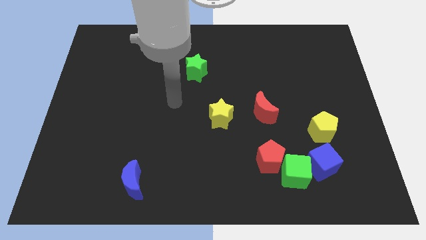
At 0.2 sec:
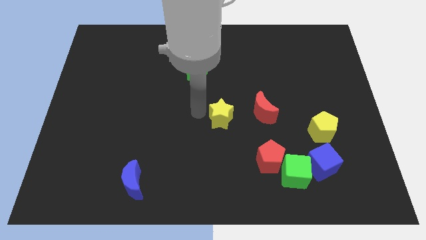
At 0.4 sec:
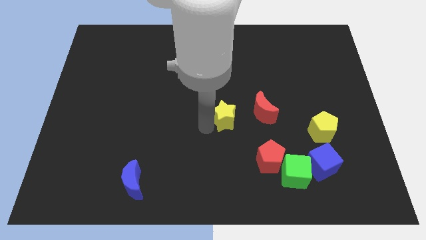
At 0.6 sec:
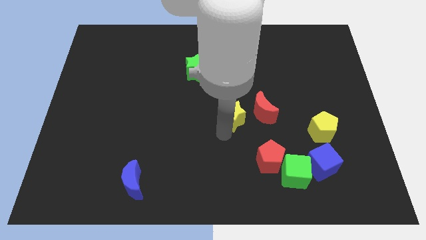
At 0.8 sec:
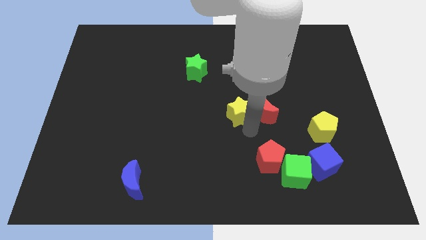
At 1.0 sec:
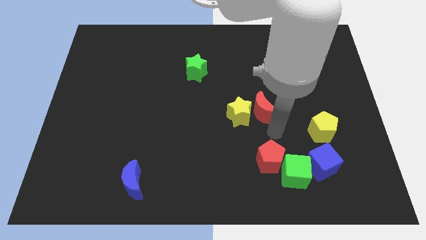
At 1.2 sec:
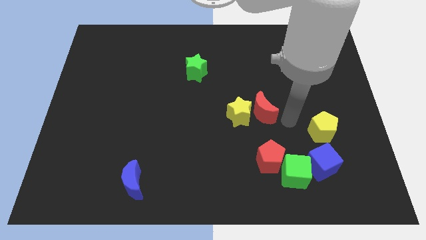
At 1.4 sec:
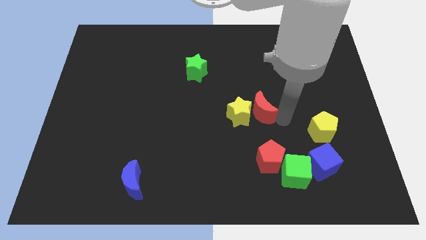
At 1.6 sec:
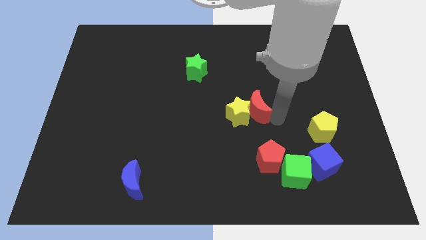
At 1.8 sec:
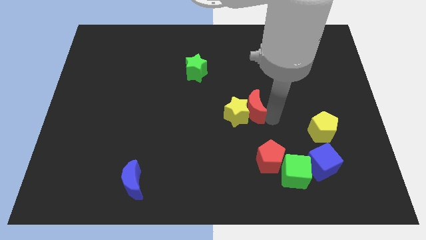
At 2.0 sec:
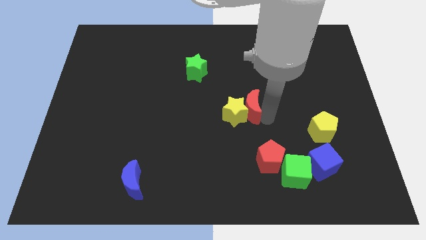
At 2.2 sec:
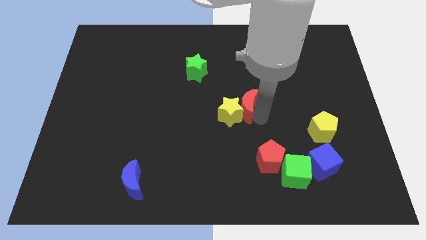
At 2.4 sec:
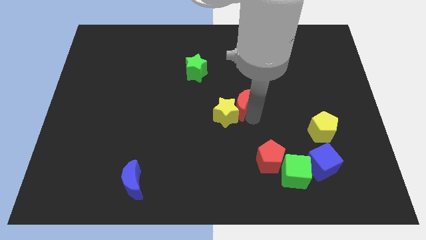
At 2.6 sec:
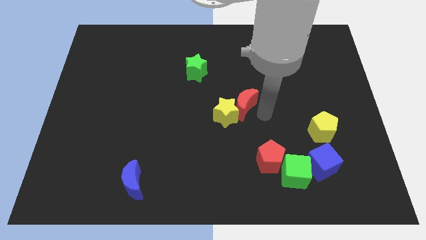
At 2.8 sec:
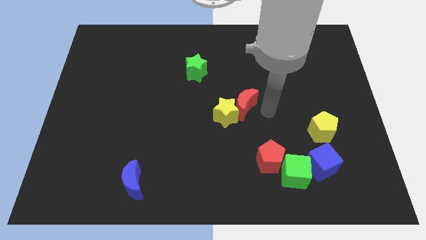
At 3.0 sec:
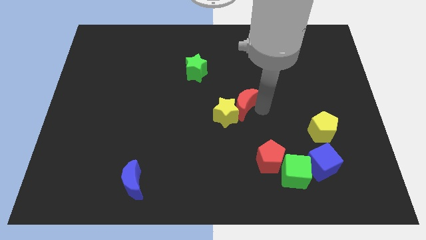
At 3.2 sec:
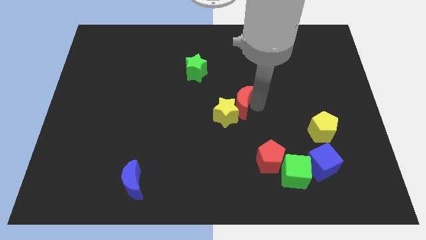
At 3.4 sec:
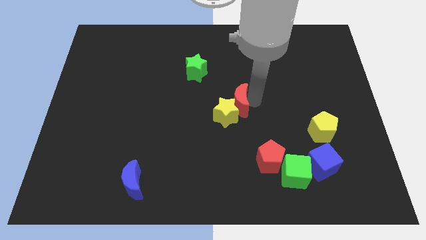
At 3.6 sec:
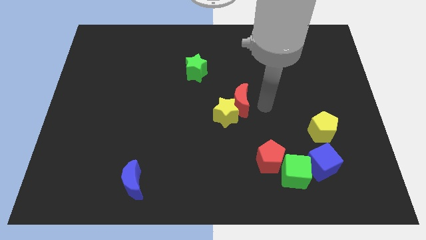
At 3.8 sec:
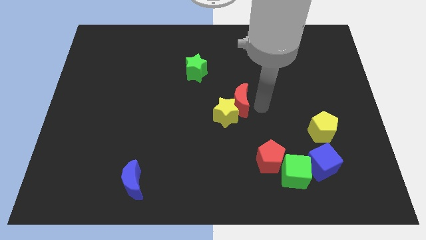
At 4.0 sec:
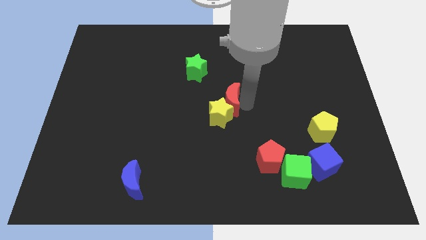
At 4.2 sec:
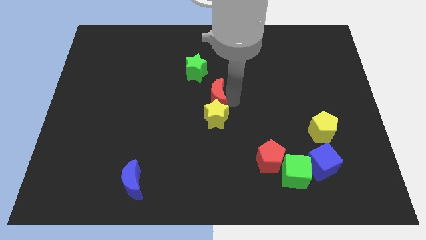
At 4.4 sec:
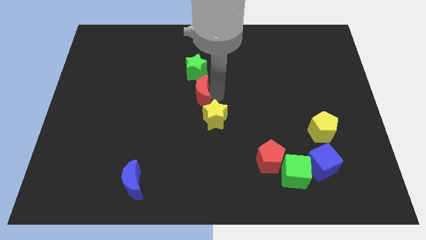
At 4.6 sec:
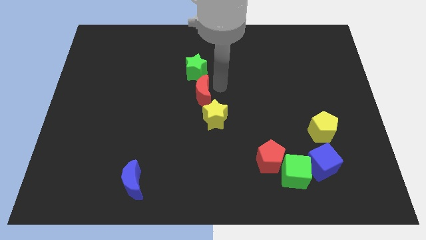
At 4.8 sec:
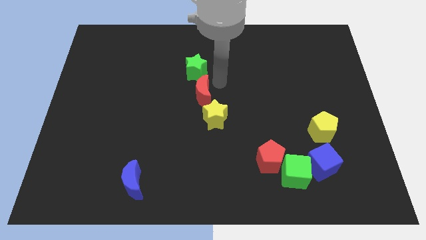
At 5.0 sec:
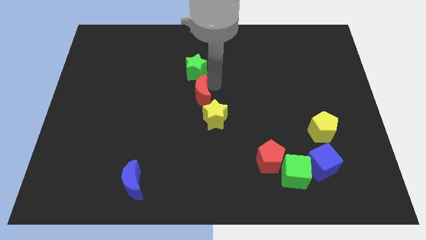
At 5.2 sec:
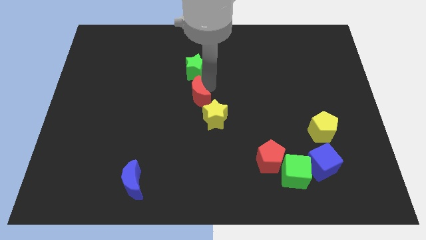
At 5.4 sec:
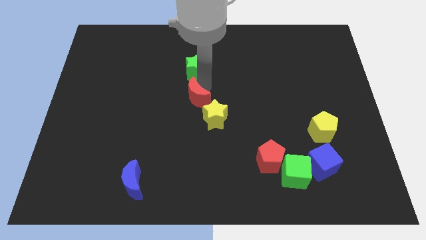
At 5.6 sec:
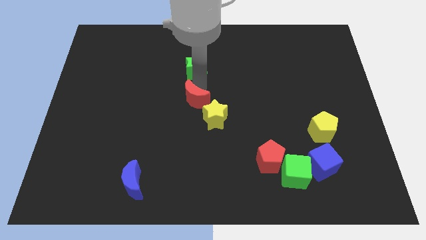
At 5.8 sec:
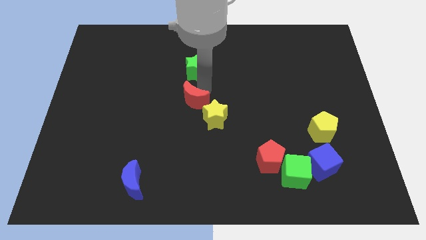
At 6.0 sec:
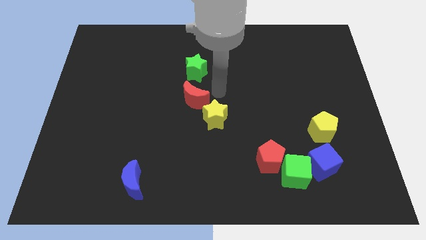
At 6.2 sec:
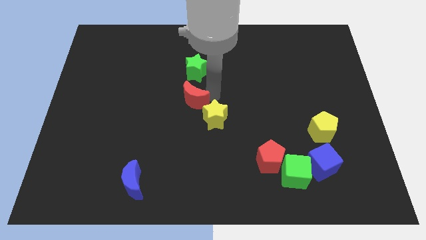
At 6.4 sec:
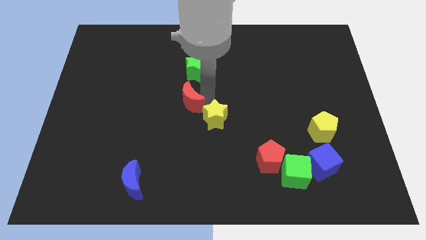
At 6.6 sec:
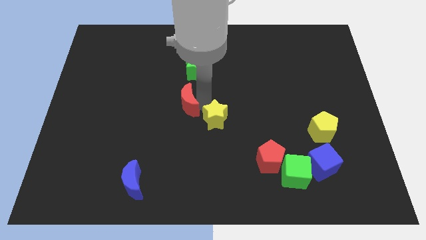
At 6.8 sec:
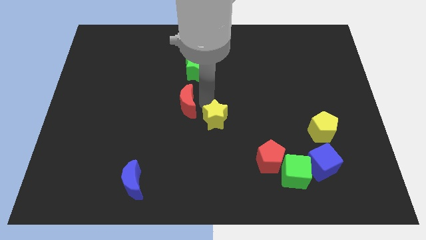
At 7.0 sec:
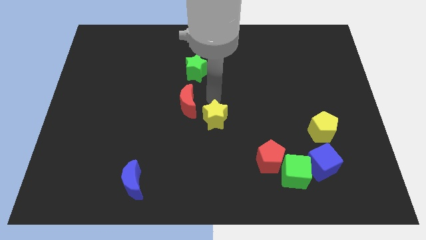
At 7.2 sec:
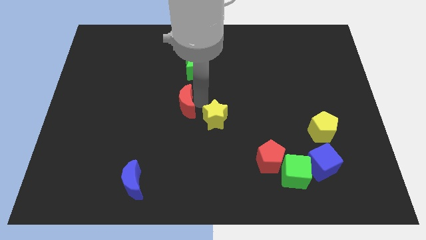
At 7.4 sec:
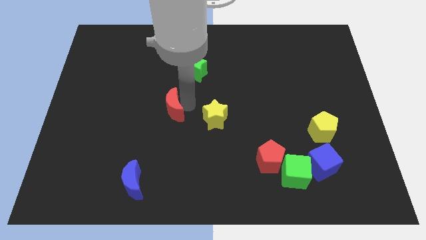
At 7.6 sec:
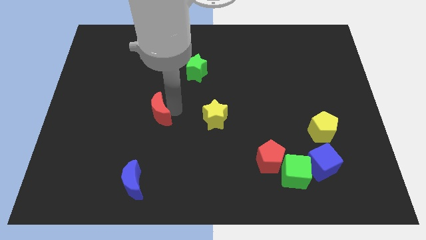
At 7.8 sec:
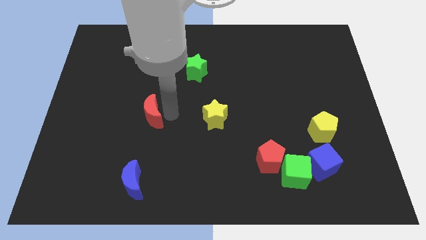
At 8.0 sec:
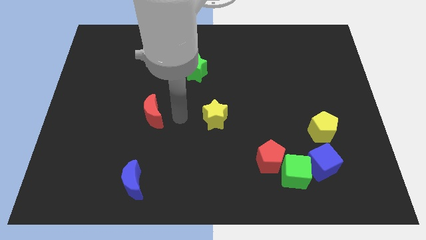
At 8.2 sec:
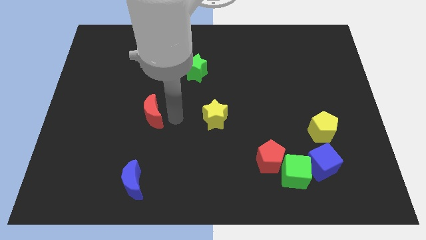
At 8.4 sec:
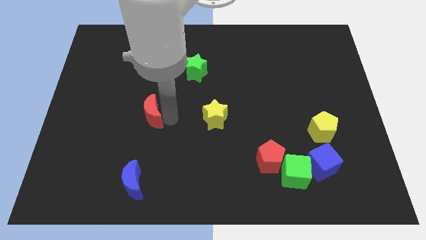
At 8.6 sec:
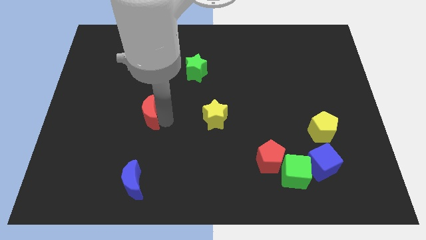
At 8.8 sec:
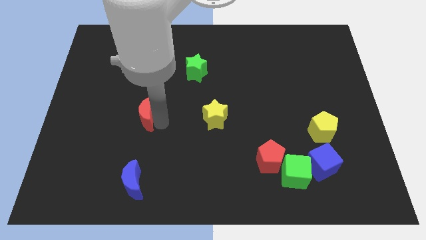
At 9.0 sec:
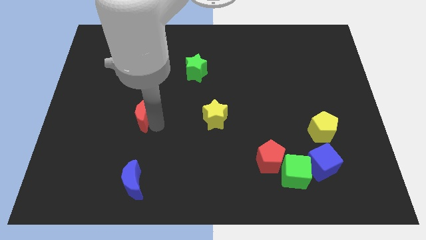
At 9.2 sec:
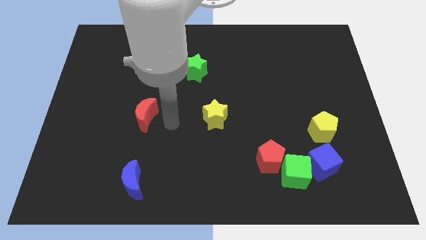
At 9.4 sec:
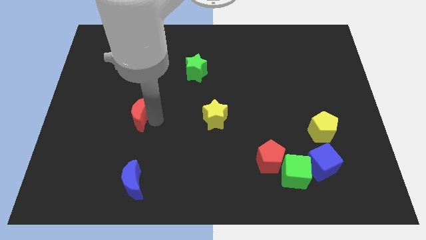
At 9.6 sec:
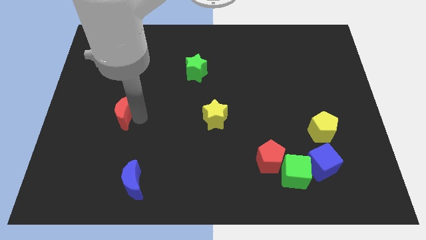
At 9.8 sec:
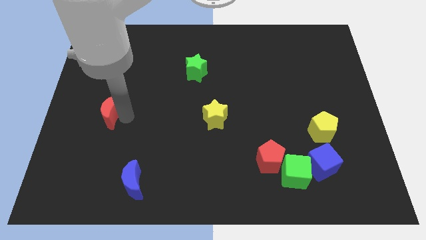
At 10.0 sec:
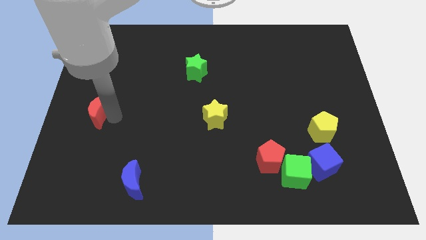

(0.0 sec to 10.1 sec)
slide the red moon to the center left

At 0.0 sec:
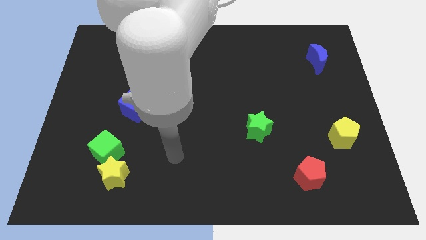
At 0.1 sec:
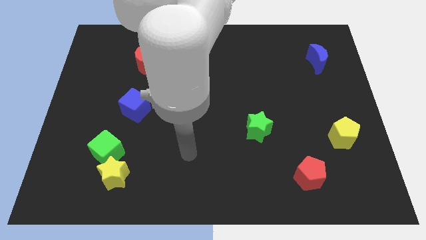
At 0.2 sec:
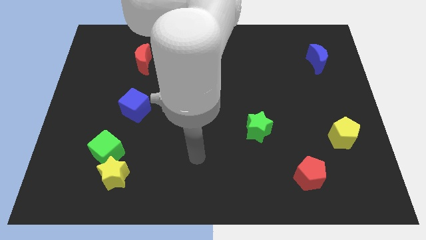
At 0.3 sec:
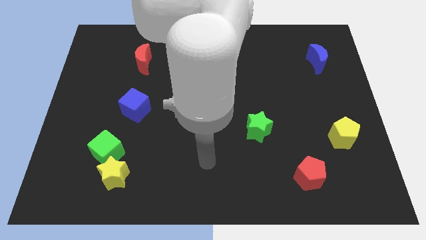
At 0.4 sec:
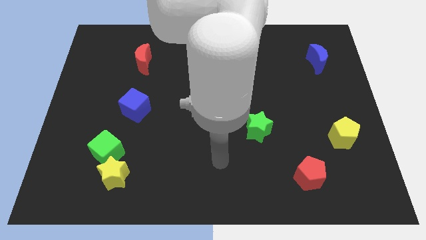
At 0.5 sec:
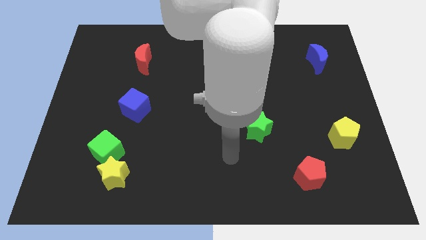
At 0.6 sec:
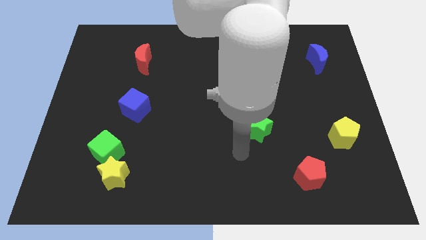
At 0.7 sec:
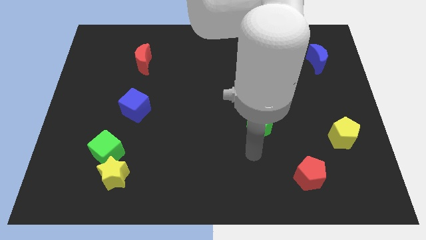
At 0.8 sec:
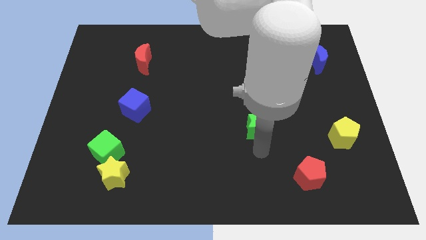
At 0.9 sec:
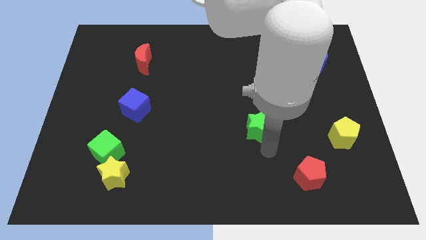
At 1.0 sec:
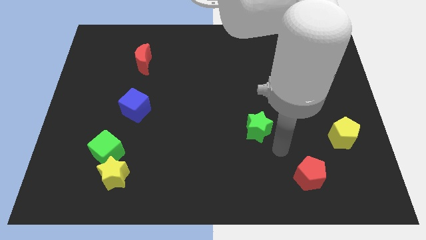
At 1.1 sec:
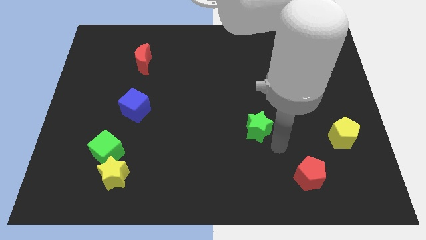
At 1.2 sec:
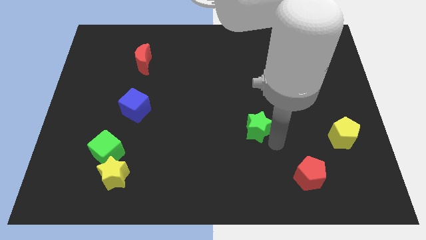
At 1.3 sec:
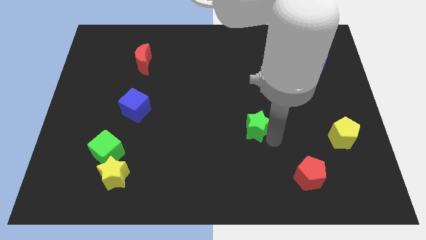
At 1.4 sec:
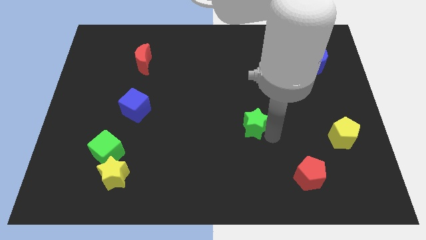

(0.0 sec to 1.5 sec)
push the green star to the center
